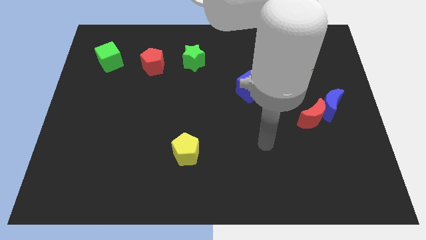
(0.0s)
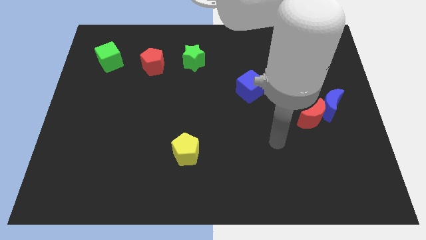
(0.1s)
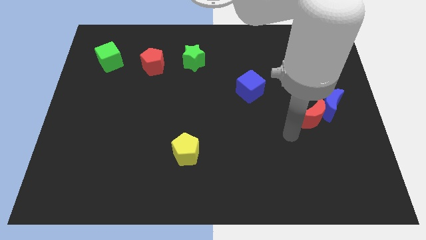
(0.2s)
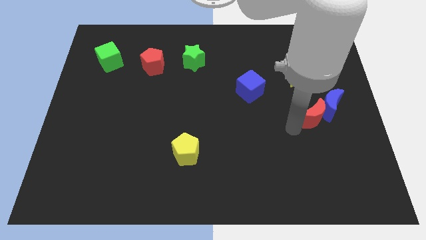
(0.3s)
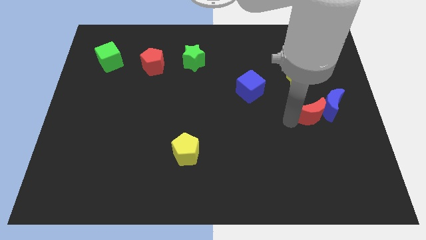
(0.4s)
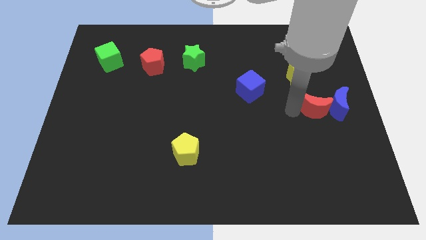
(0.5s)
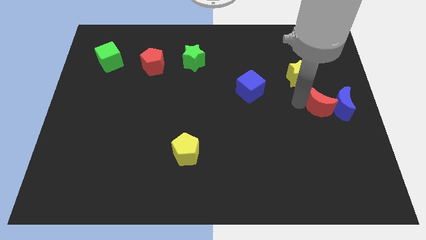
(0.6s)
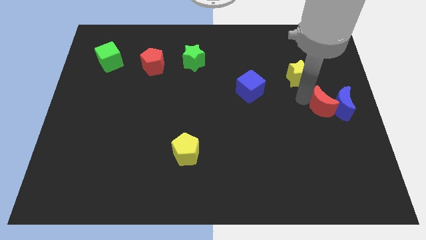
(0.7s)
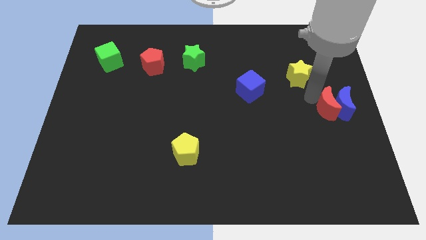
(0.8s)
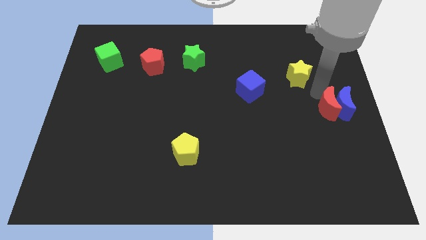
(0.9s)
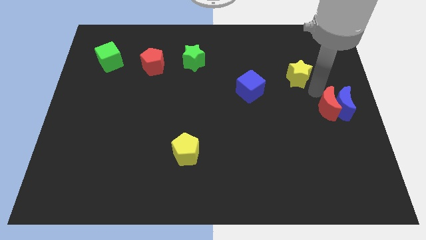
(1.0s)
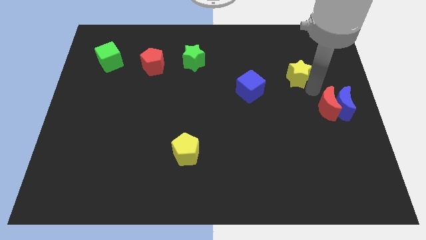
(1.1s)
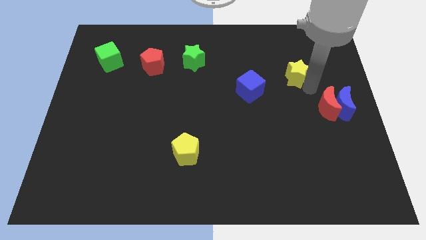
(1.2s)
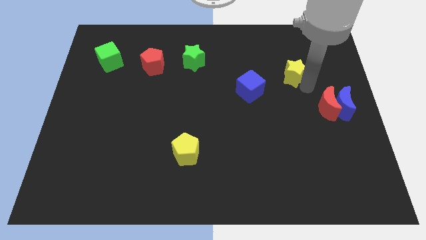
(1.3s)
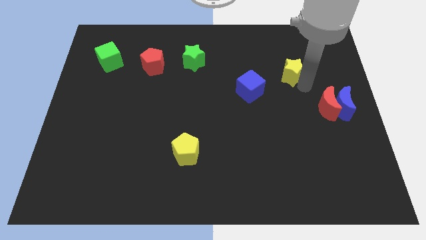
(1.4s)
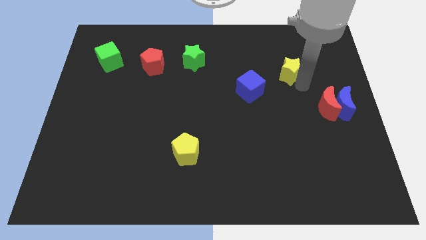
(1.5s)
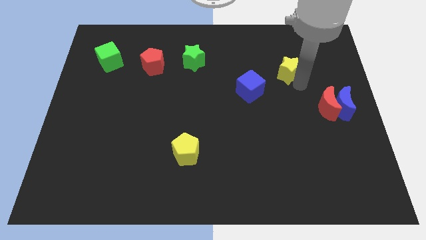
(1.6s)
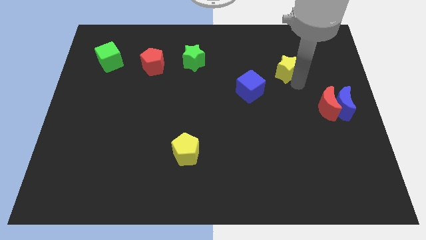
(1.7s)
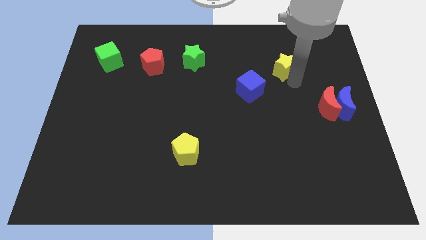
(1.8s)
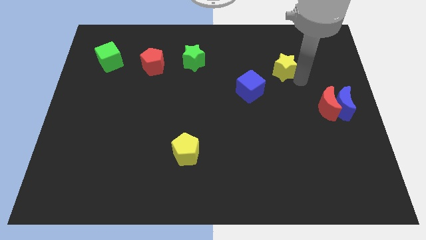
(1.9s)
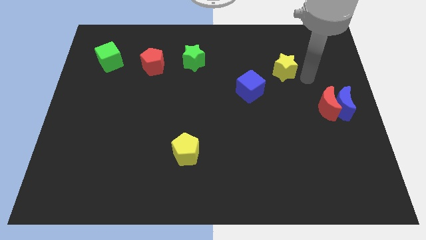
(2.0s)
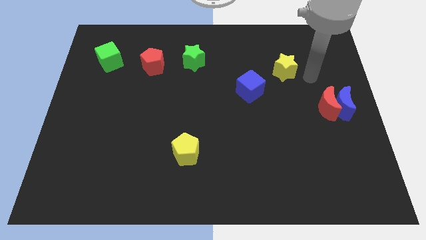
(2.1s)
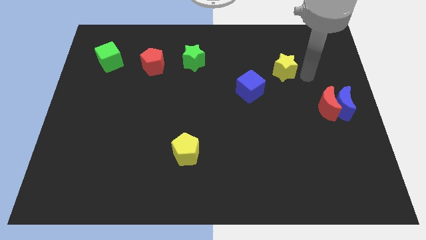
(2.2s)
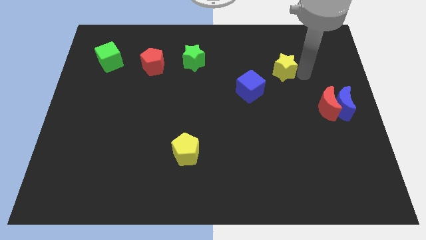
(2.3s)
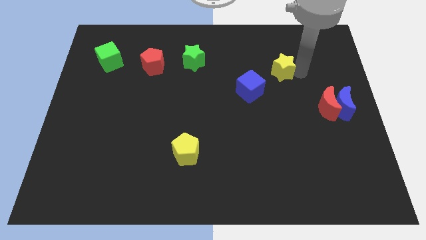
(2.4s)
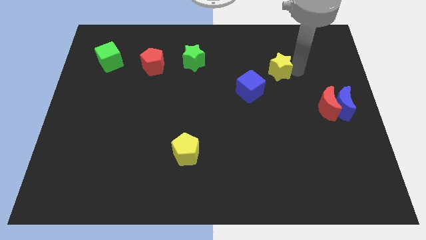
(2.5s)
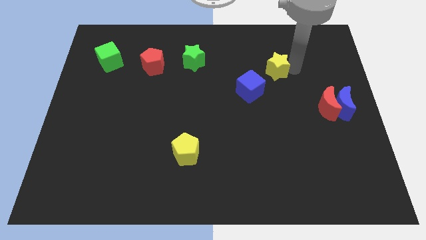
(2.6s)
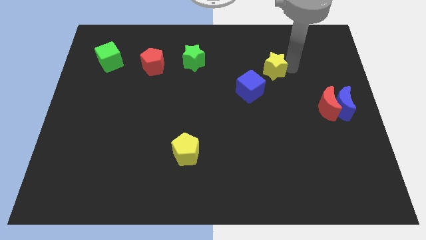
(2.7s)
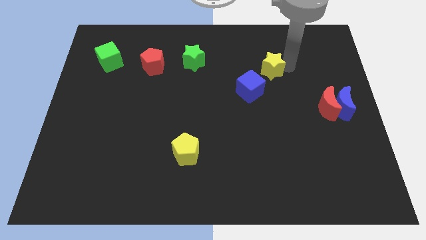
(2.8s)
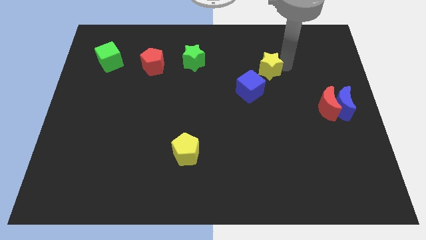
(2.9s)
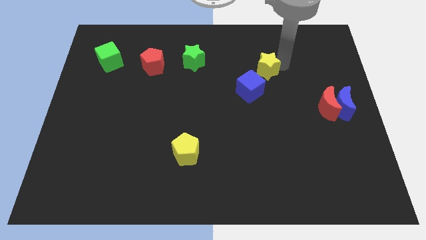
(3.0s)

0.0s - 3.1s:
push the yellow star to the left slightly

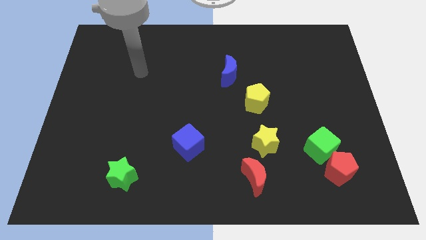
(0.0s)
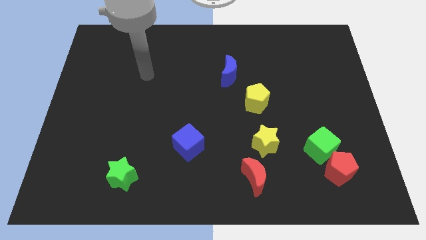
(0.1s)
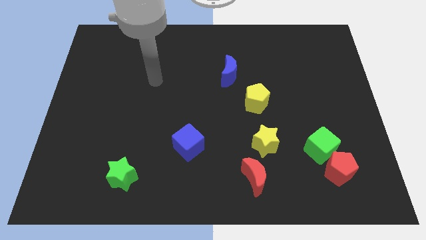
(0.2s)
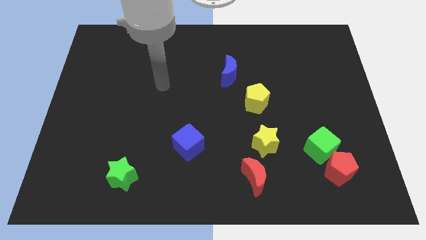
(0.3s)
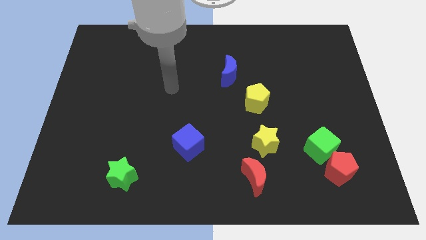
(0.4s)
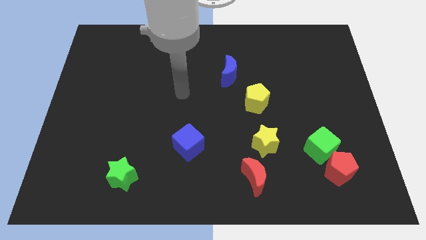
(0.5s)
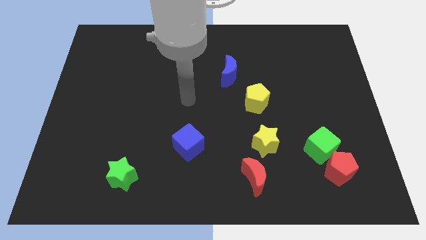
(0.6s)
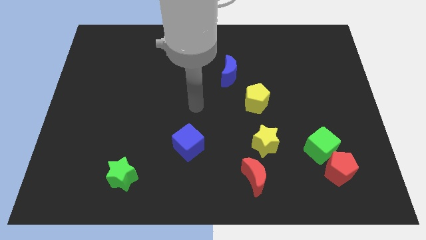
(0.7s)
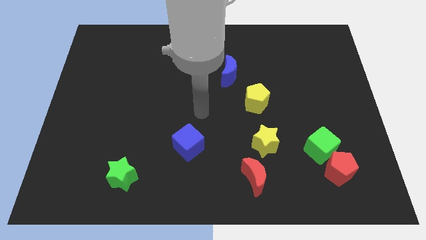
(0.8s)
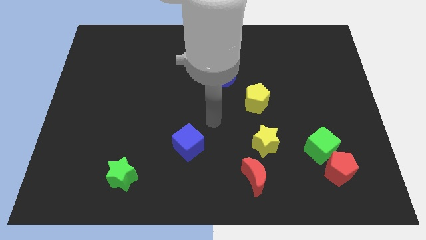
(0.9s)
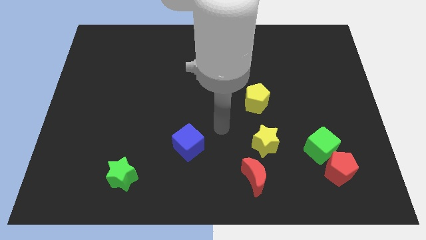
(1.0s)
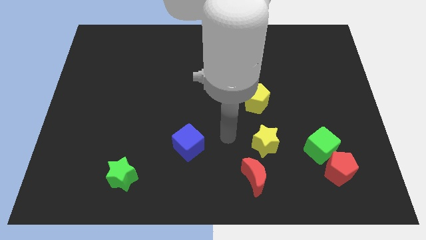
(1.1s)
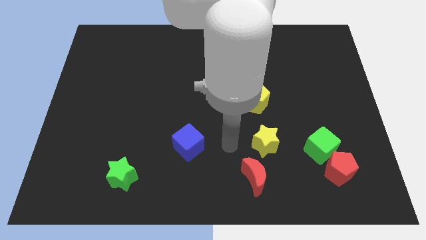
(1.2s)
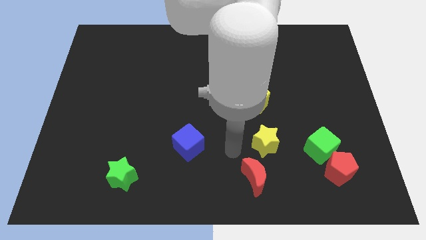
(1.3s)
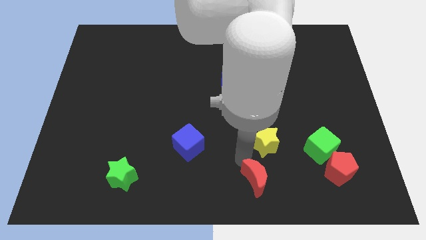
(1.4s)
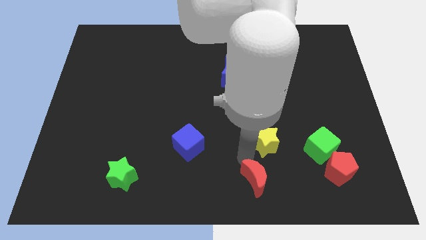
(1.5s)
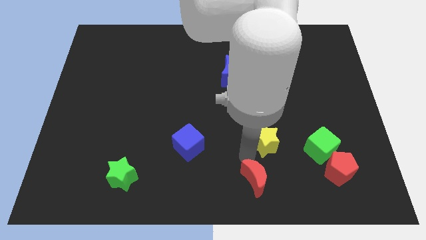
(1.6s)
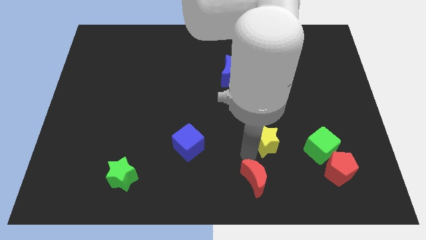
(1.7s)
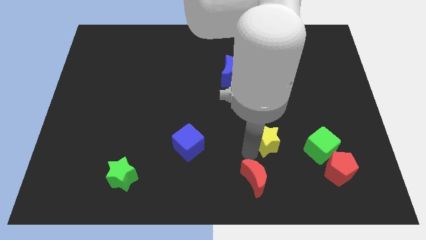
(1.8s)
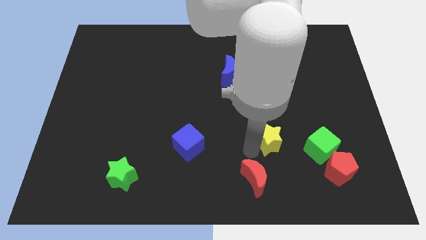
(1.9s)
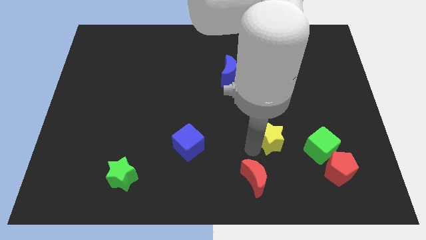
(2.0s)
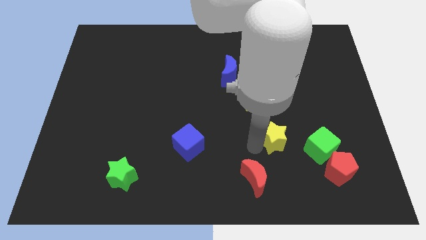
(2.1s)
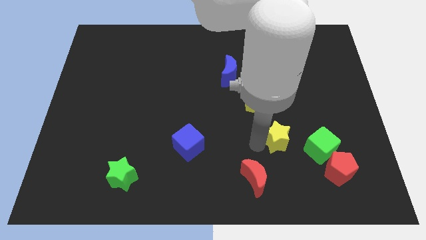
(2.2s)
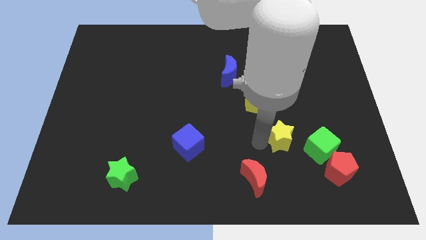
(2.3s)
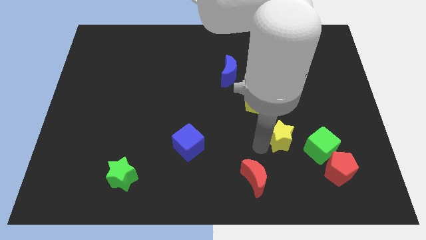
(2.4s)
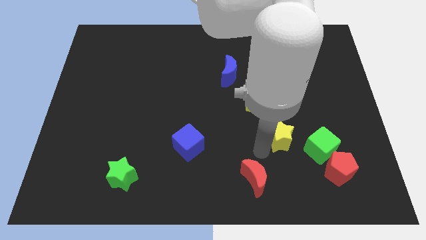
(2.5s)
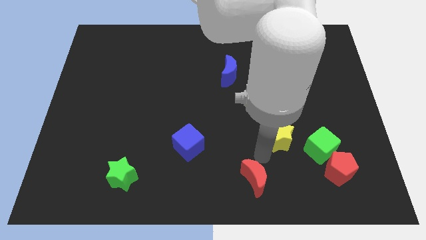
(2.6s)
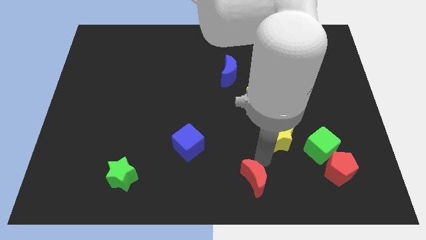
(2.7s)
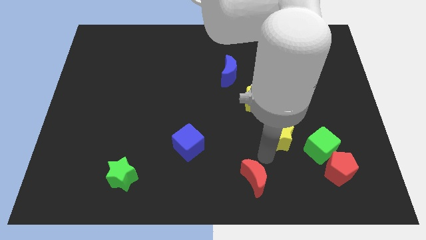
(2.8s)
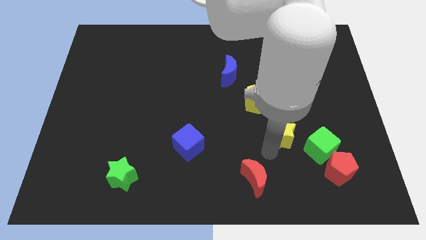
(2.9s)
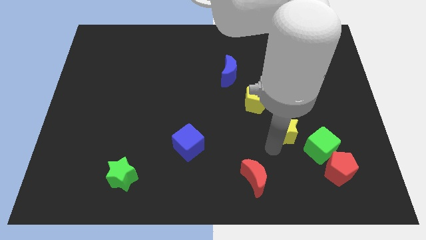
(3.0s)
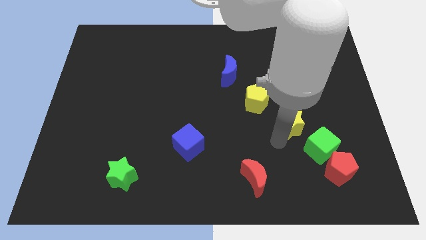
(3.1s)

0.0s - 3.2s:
slightly move the yellow star upwards and to the right diagonally

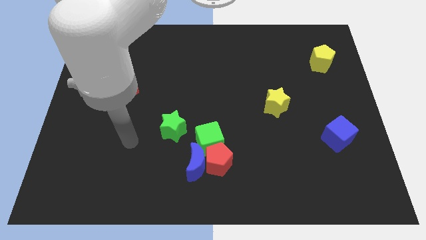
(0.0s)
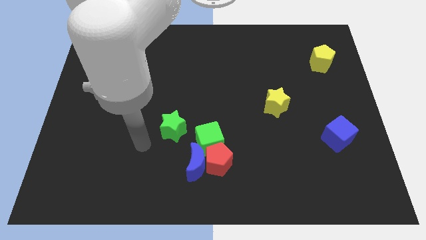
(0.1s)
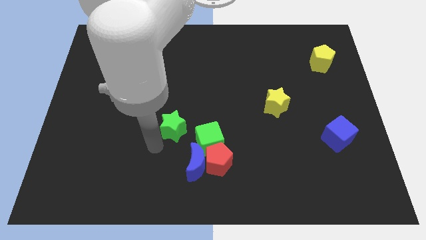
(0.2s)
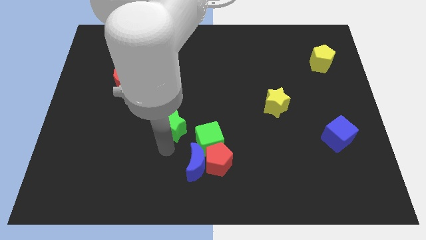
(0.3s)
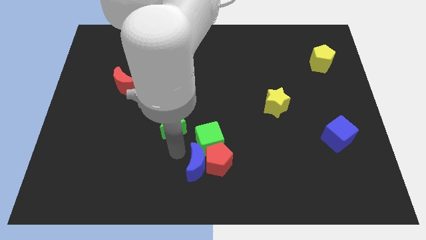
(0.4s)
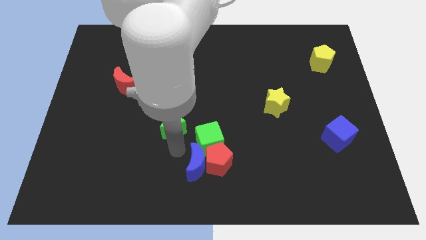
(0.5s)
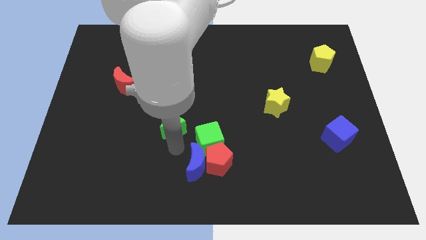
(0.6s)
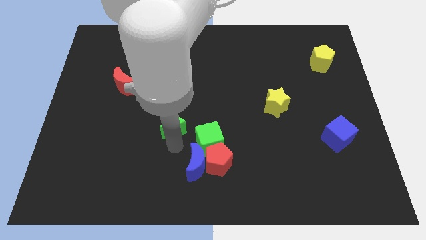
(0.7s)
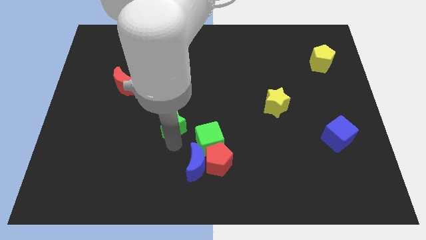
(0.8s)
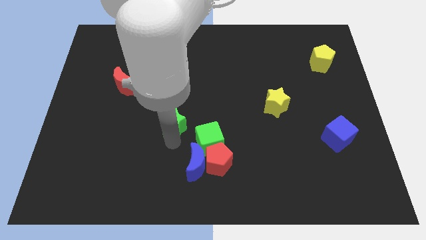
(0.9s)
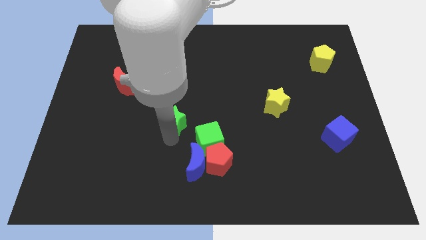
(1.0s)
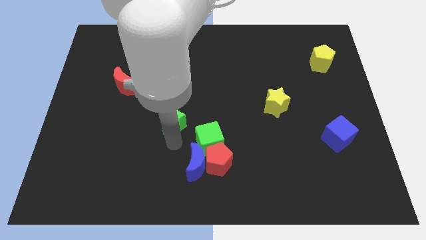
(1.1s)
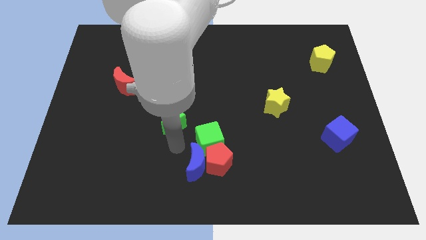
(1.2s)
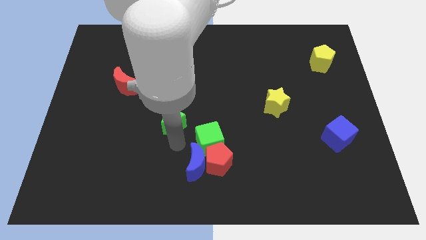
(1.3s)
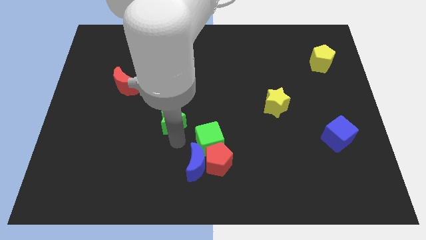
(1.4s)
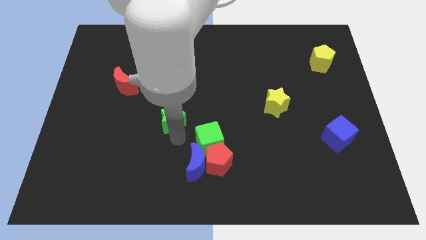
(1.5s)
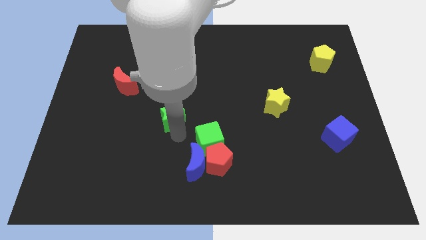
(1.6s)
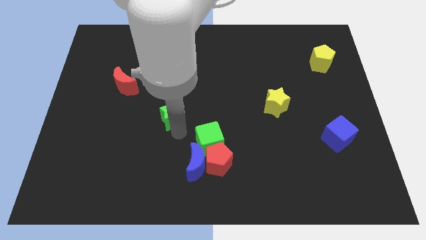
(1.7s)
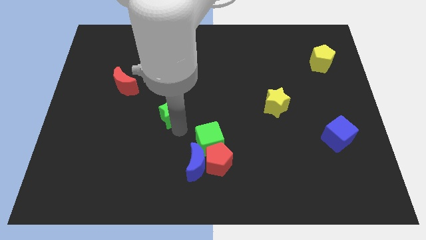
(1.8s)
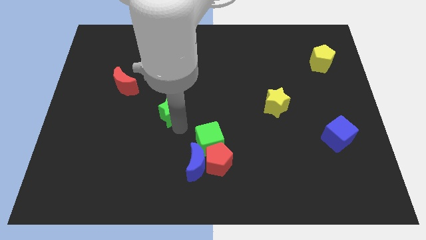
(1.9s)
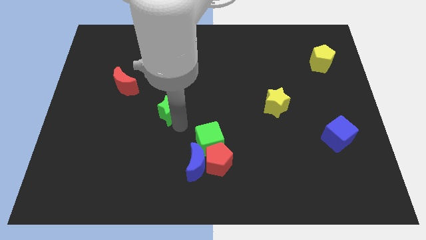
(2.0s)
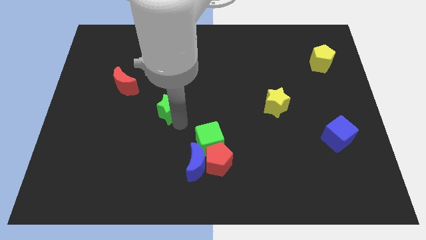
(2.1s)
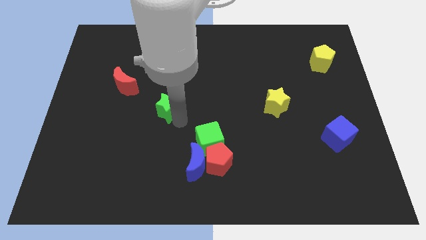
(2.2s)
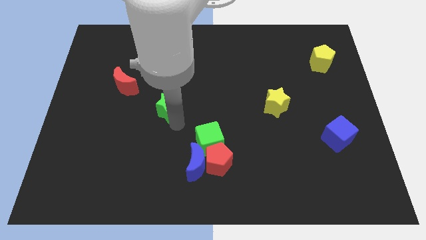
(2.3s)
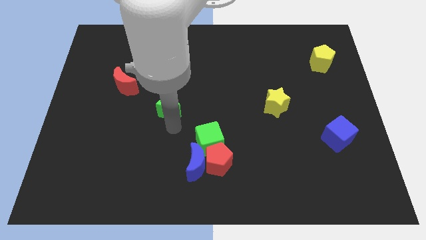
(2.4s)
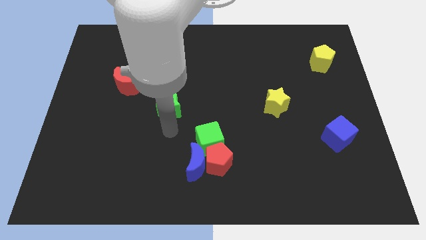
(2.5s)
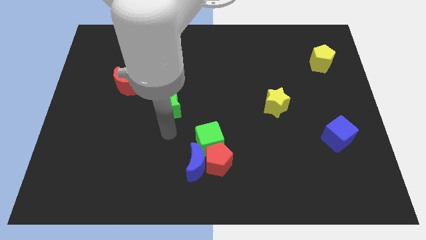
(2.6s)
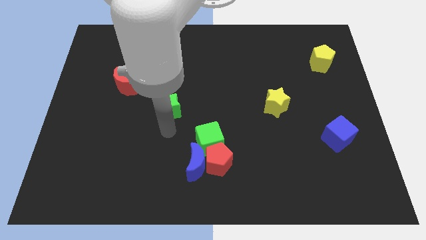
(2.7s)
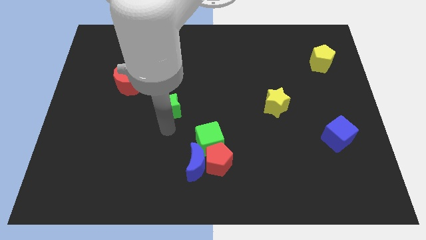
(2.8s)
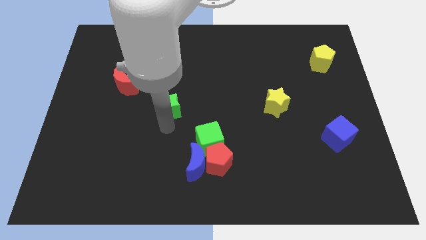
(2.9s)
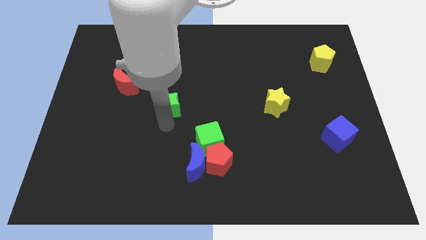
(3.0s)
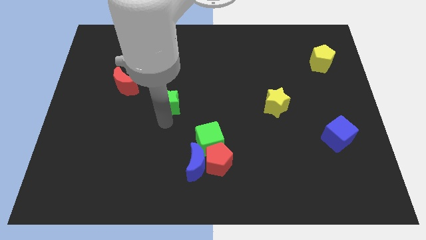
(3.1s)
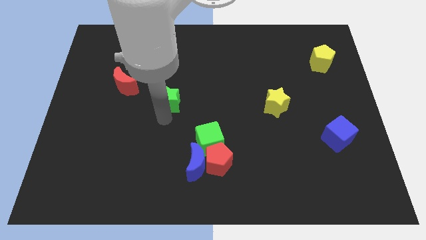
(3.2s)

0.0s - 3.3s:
slide the green star a bit up
